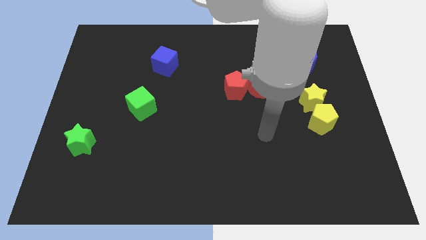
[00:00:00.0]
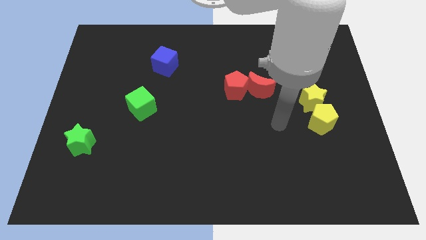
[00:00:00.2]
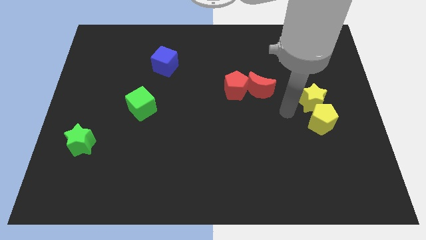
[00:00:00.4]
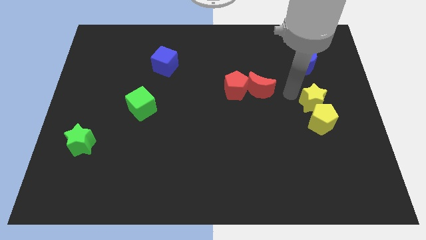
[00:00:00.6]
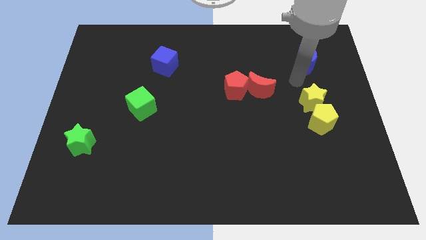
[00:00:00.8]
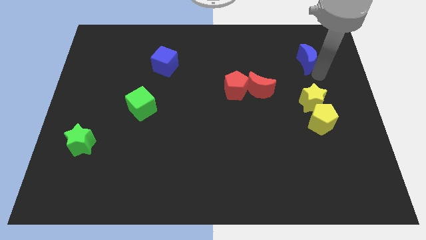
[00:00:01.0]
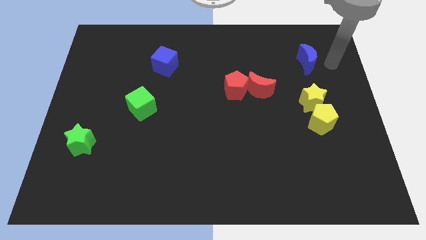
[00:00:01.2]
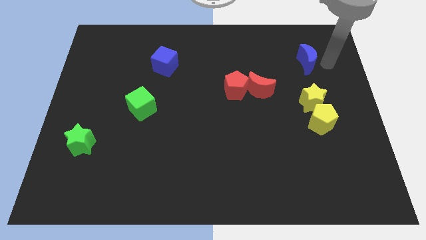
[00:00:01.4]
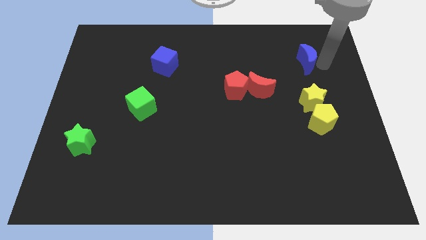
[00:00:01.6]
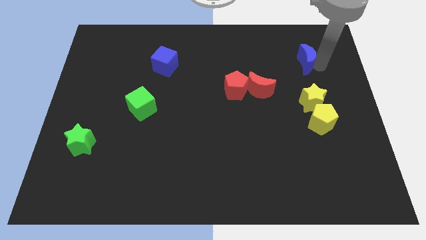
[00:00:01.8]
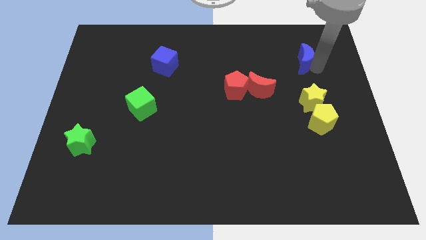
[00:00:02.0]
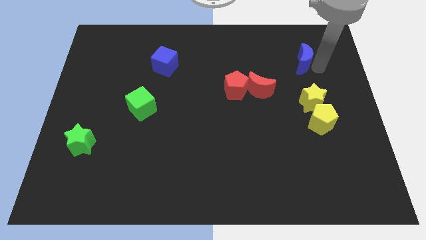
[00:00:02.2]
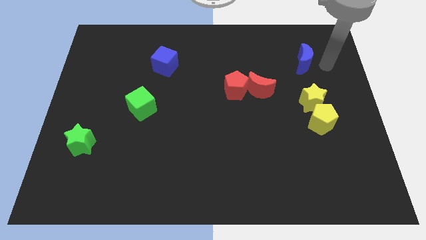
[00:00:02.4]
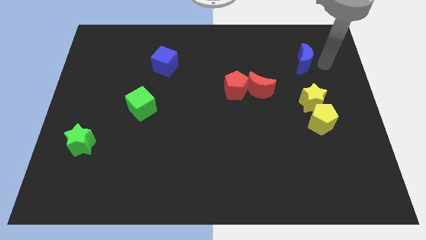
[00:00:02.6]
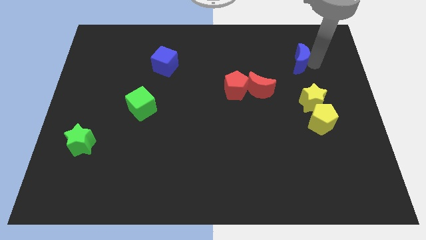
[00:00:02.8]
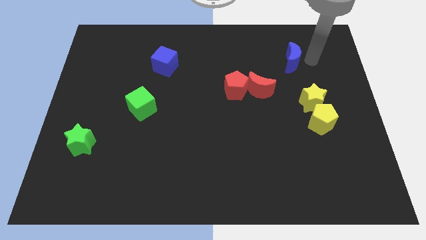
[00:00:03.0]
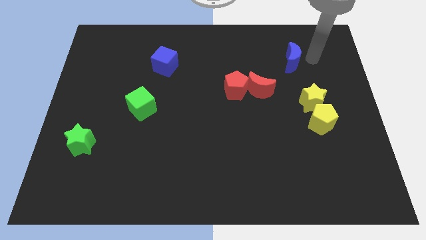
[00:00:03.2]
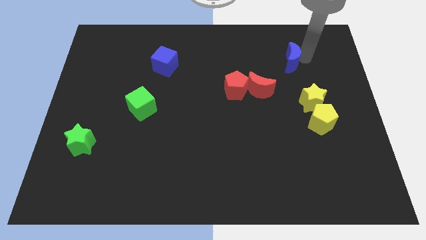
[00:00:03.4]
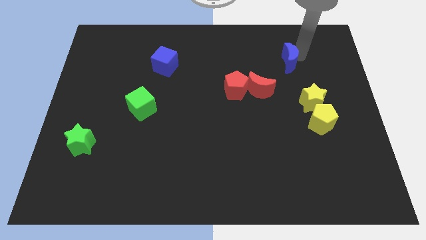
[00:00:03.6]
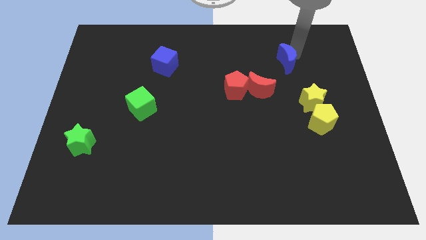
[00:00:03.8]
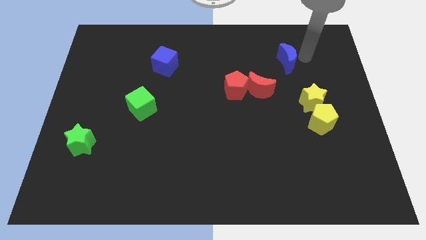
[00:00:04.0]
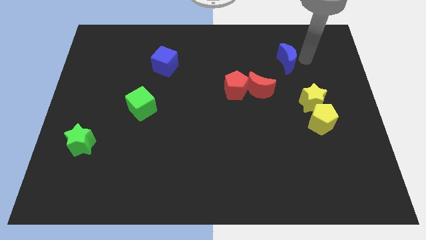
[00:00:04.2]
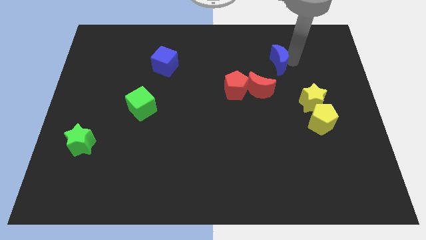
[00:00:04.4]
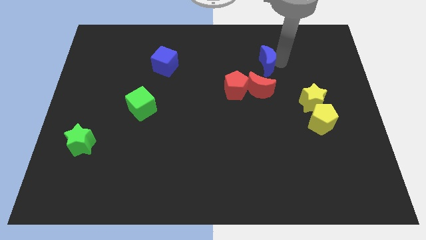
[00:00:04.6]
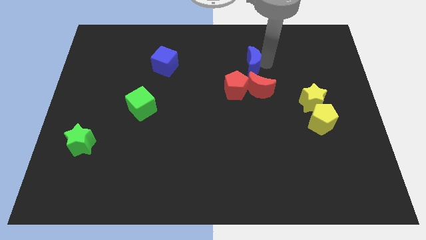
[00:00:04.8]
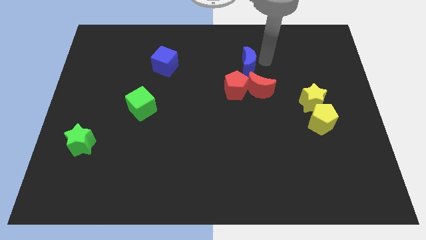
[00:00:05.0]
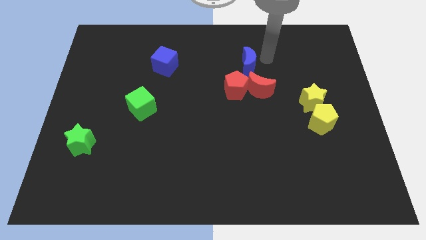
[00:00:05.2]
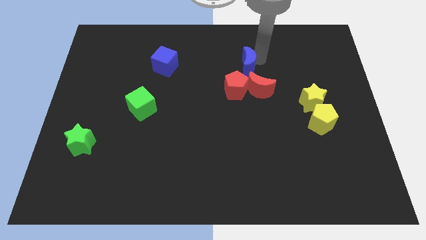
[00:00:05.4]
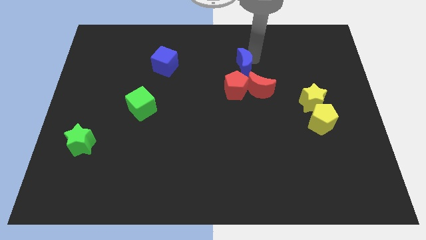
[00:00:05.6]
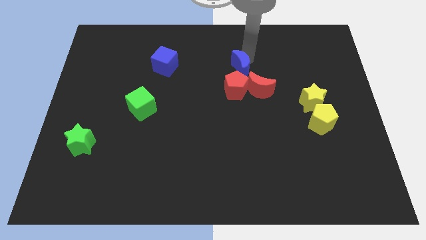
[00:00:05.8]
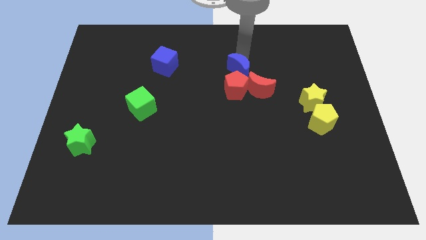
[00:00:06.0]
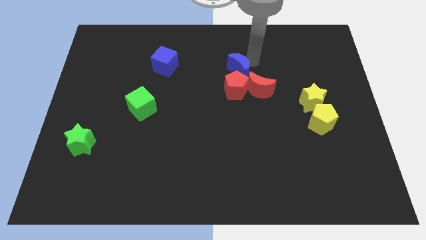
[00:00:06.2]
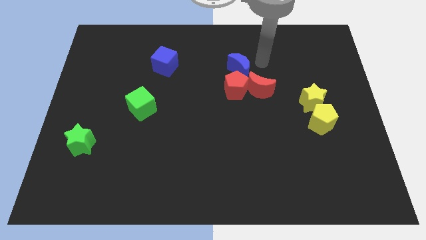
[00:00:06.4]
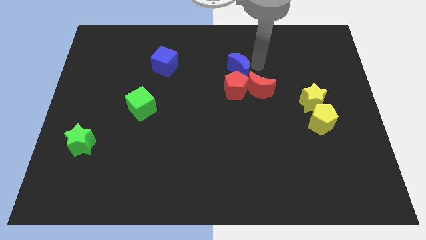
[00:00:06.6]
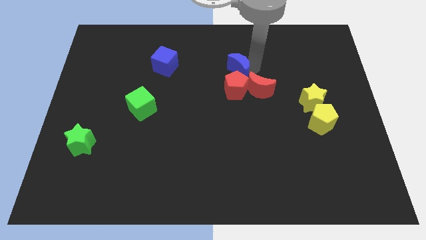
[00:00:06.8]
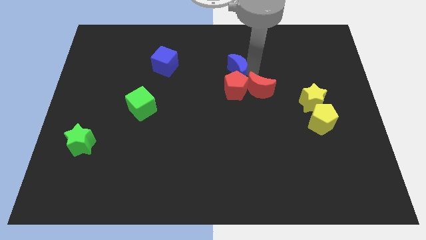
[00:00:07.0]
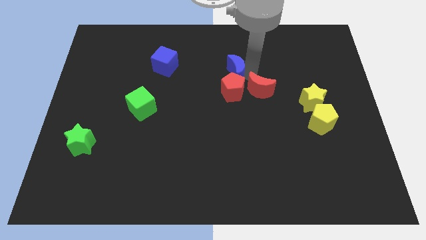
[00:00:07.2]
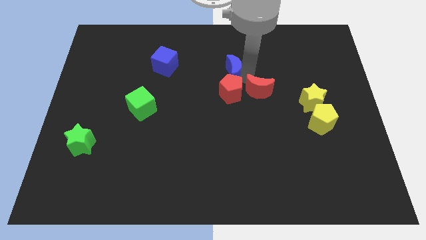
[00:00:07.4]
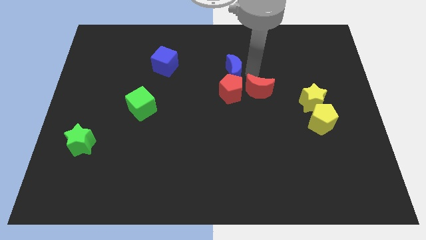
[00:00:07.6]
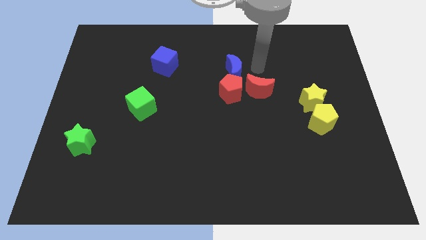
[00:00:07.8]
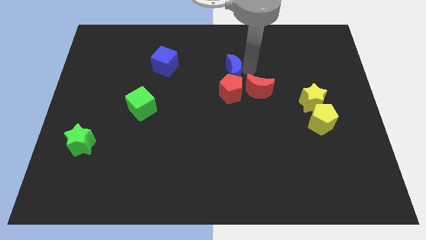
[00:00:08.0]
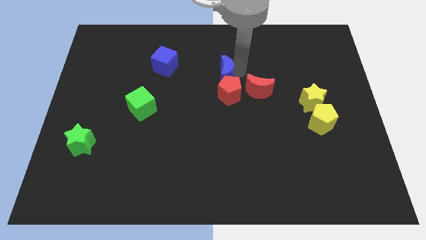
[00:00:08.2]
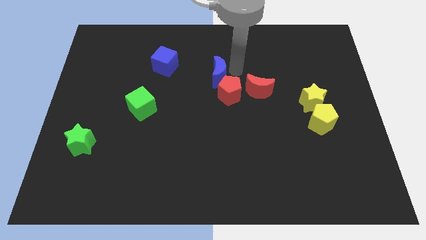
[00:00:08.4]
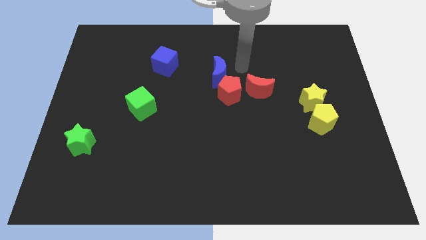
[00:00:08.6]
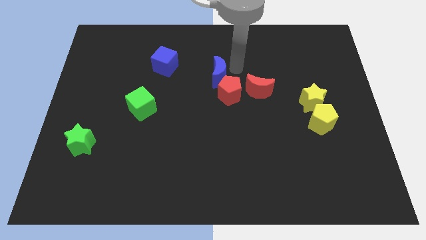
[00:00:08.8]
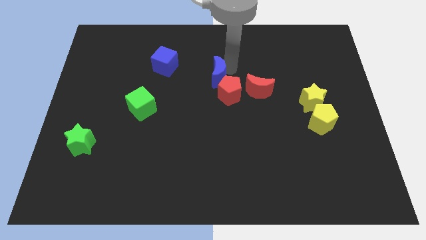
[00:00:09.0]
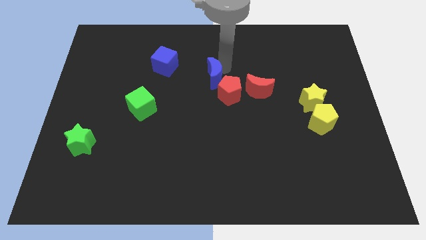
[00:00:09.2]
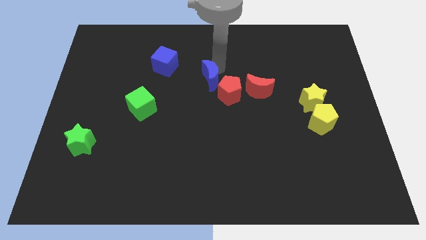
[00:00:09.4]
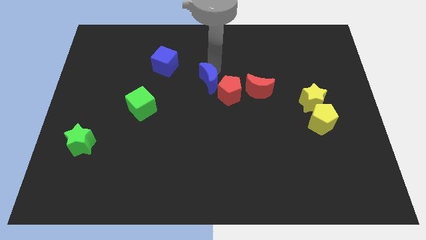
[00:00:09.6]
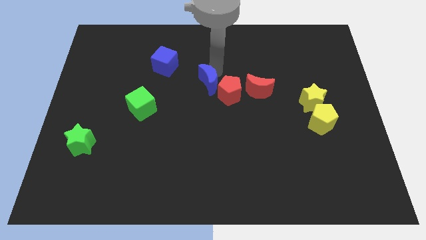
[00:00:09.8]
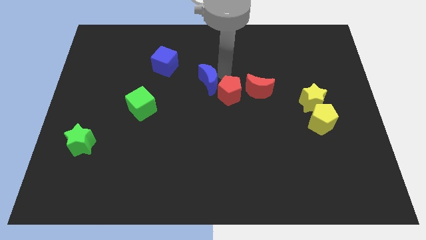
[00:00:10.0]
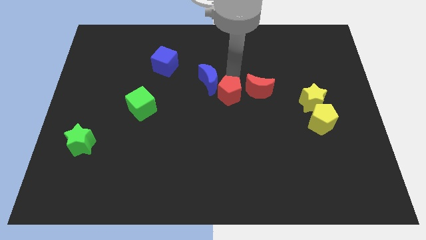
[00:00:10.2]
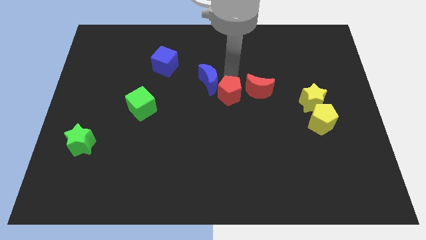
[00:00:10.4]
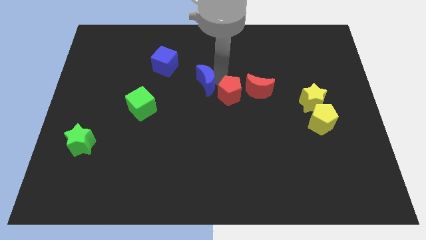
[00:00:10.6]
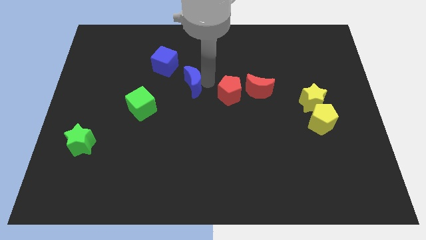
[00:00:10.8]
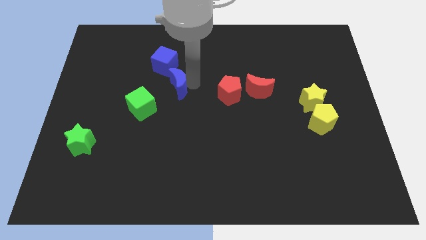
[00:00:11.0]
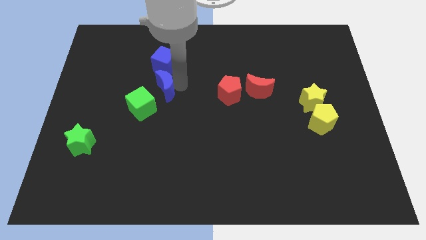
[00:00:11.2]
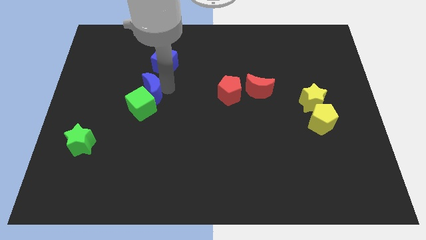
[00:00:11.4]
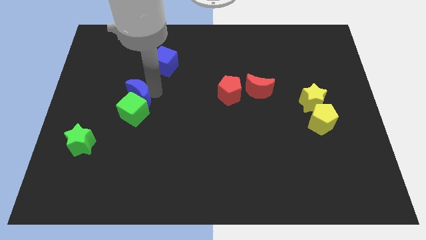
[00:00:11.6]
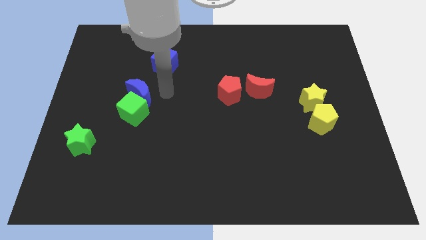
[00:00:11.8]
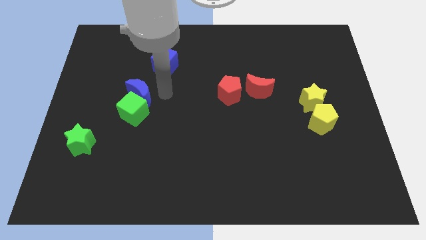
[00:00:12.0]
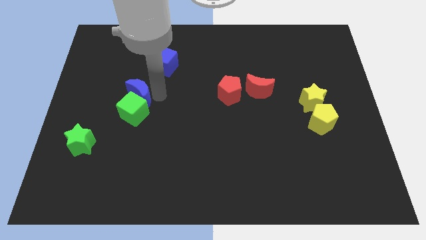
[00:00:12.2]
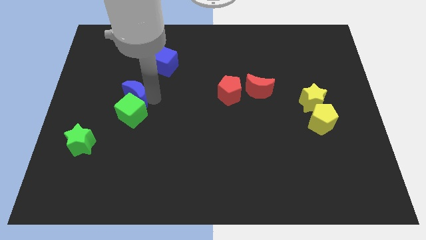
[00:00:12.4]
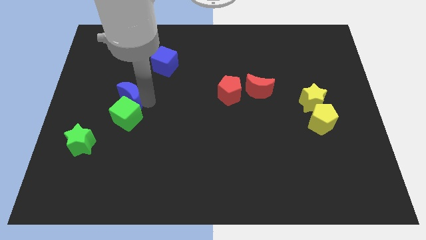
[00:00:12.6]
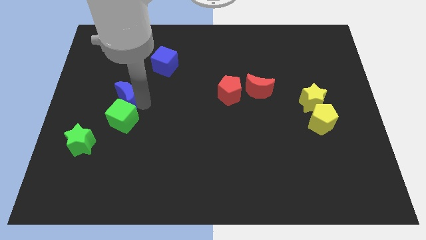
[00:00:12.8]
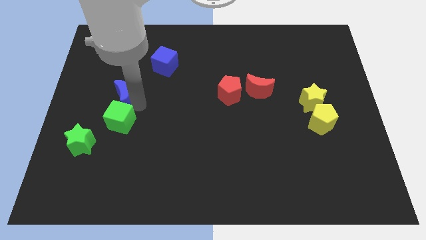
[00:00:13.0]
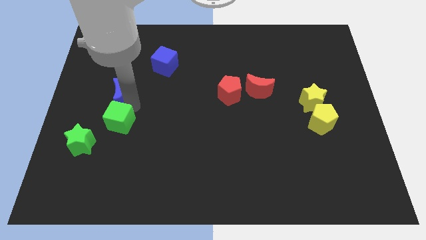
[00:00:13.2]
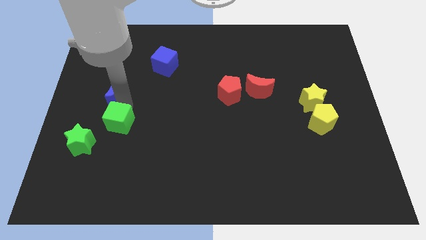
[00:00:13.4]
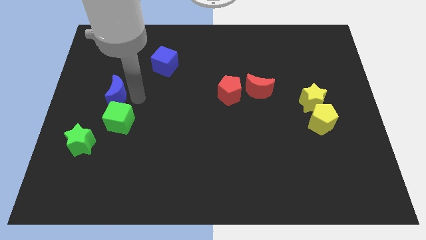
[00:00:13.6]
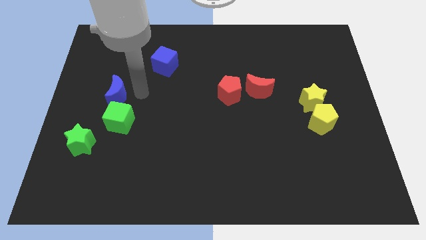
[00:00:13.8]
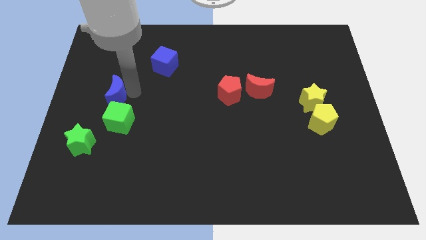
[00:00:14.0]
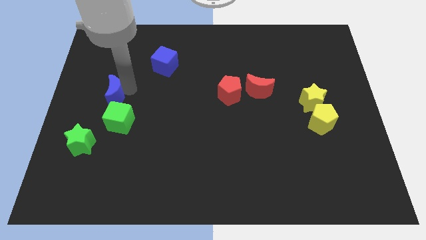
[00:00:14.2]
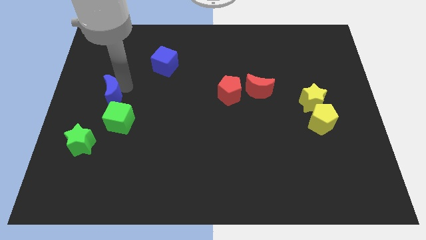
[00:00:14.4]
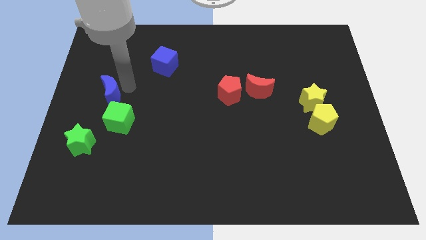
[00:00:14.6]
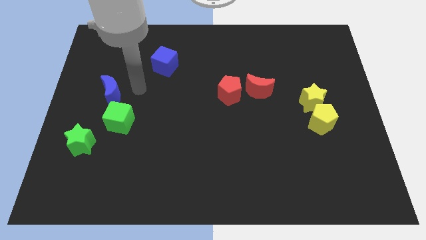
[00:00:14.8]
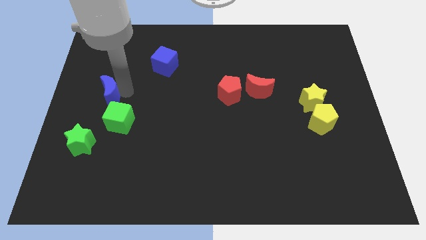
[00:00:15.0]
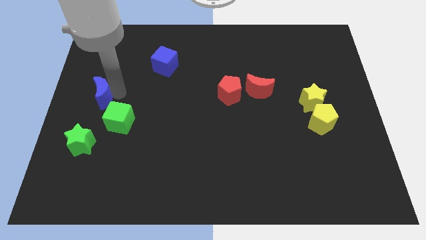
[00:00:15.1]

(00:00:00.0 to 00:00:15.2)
move the blue moon to the left side of the board
